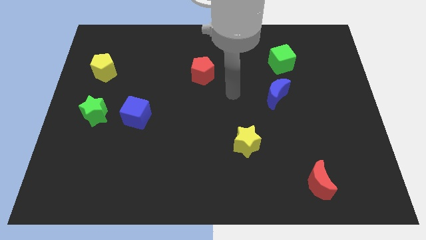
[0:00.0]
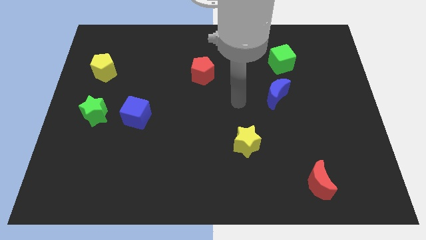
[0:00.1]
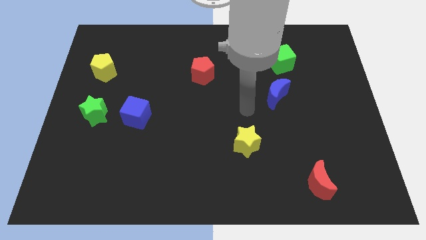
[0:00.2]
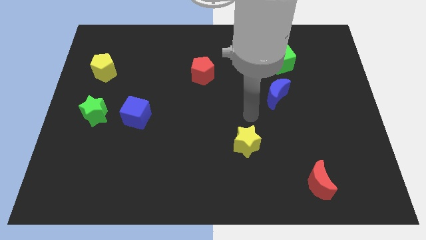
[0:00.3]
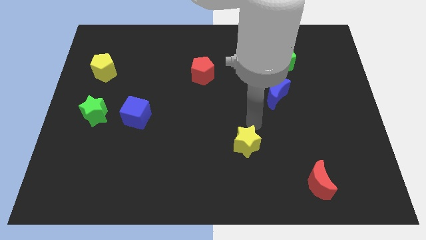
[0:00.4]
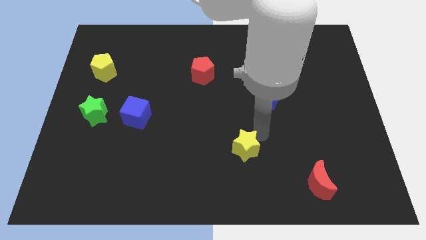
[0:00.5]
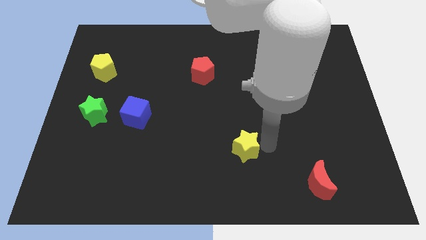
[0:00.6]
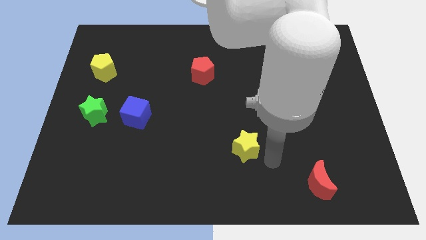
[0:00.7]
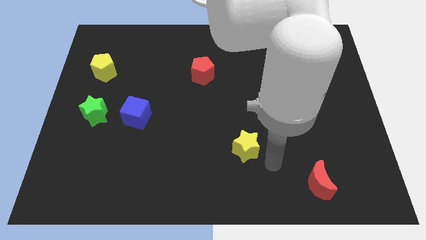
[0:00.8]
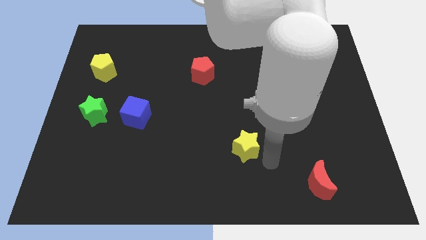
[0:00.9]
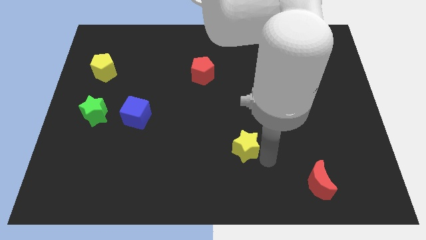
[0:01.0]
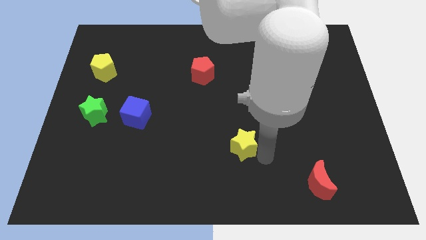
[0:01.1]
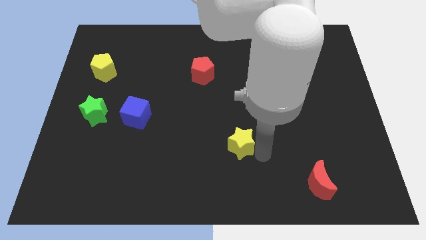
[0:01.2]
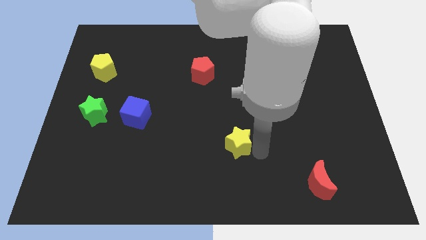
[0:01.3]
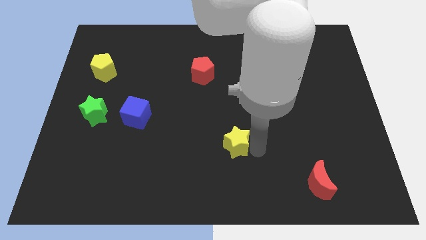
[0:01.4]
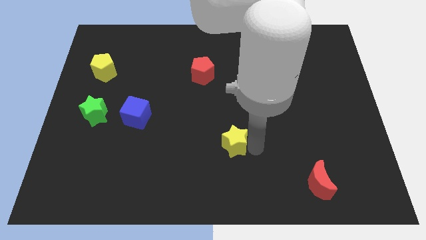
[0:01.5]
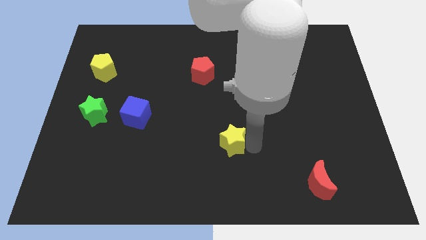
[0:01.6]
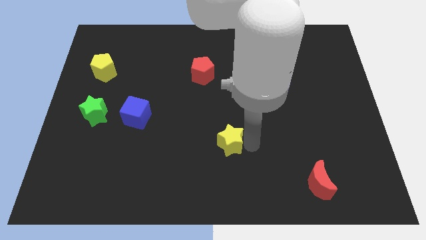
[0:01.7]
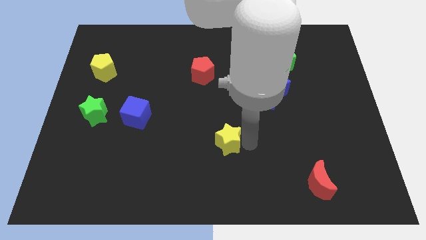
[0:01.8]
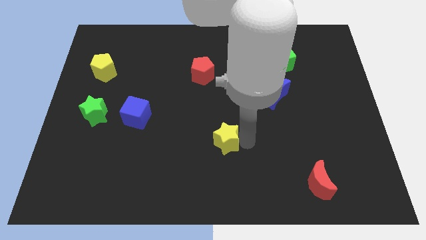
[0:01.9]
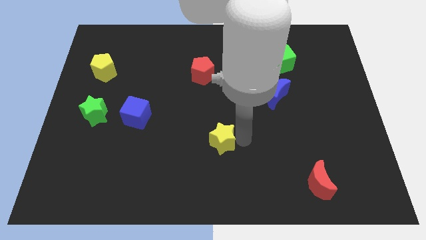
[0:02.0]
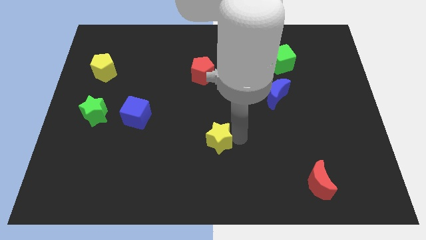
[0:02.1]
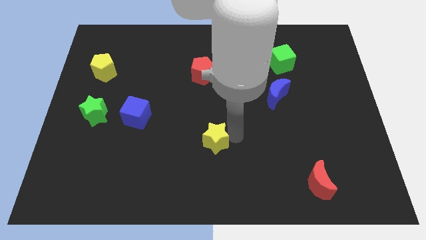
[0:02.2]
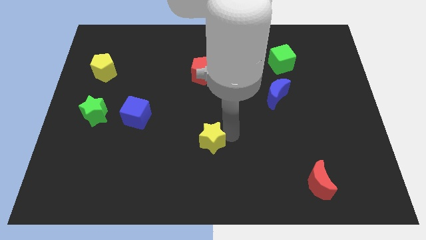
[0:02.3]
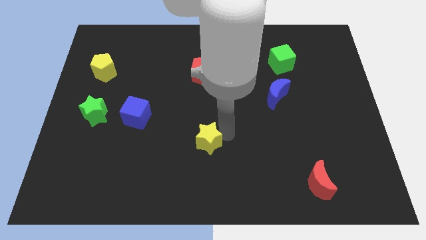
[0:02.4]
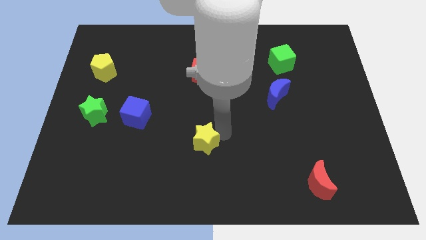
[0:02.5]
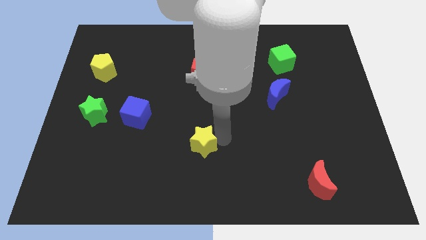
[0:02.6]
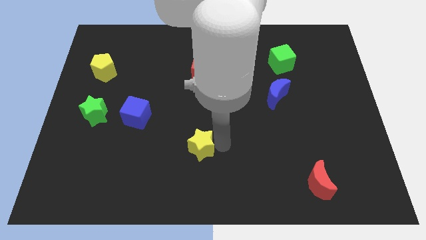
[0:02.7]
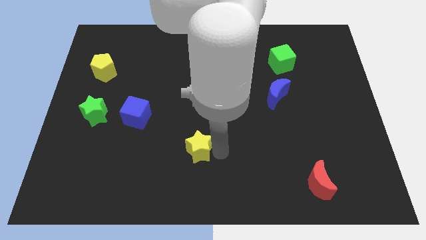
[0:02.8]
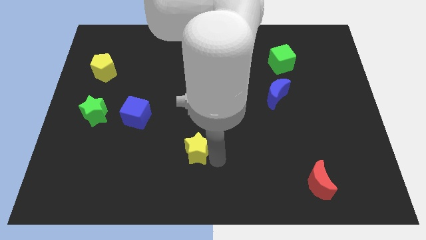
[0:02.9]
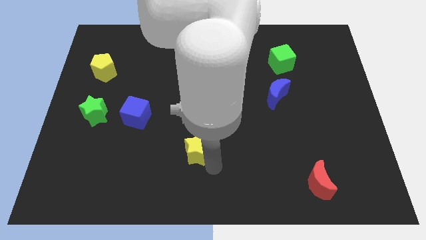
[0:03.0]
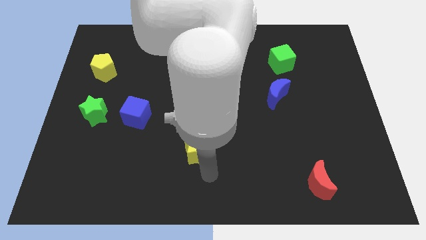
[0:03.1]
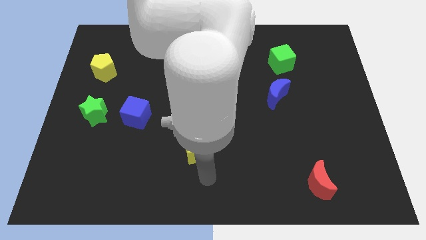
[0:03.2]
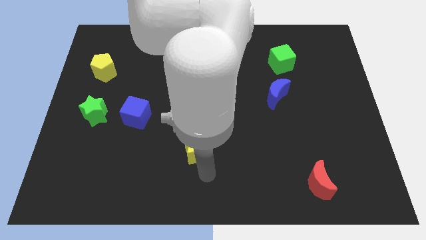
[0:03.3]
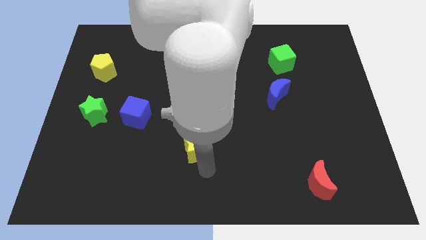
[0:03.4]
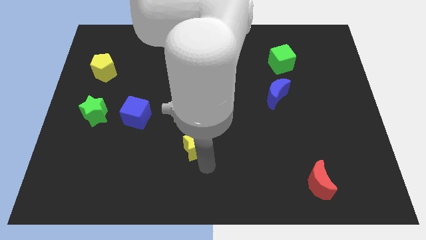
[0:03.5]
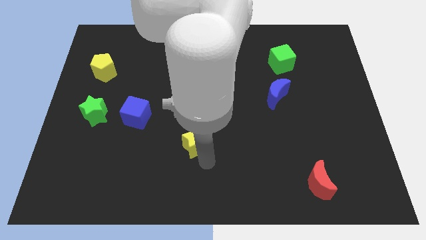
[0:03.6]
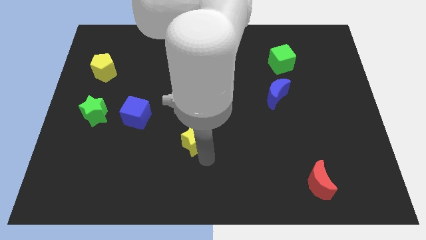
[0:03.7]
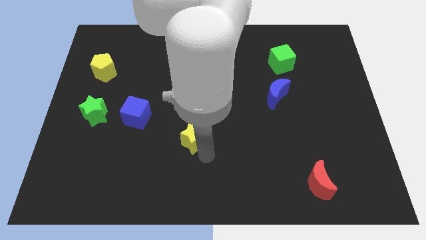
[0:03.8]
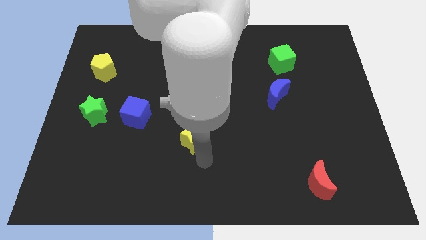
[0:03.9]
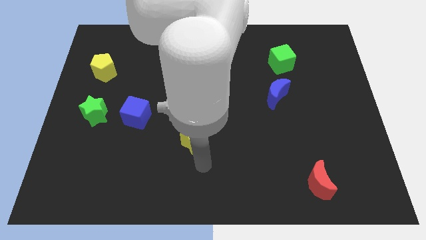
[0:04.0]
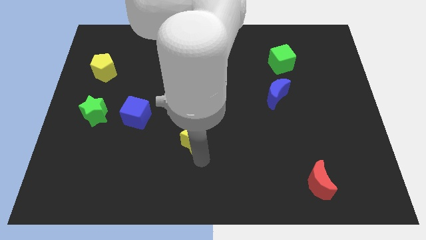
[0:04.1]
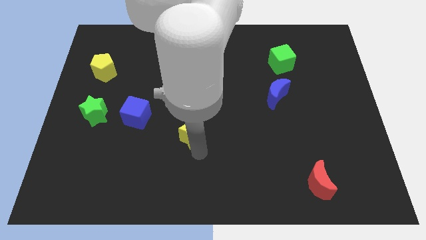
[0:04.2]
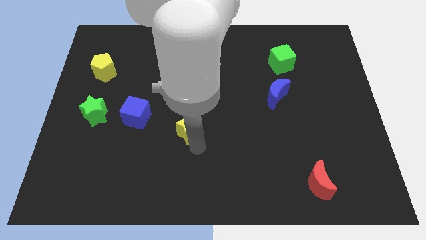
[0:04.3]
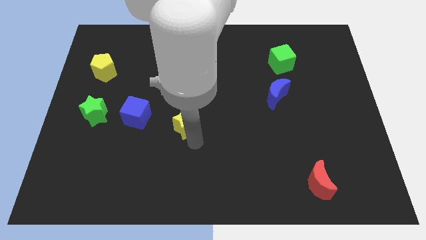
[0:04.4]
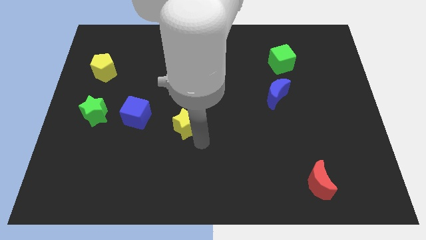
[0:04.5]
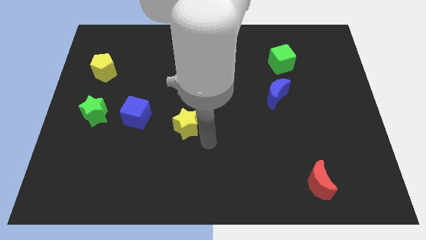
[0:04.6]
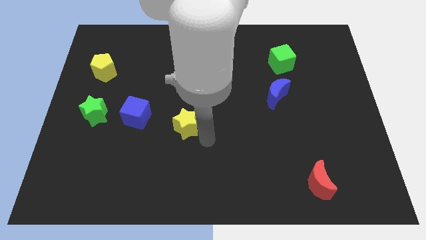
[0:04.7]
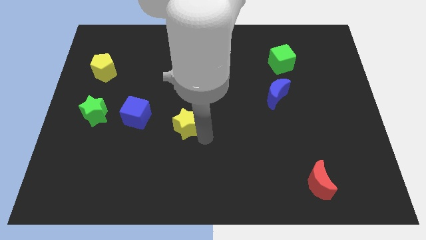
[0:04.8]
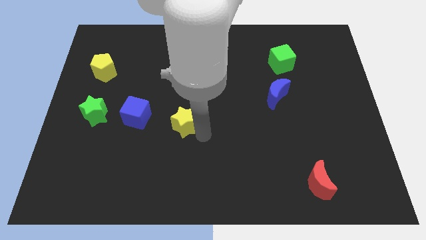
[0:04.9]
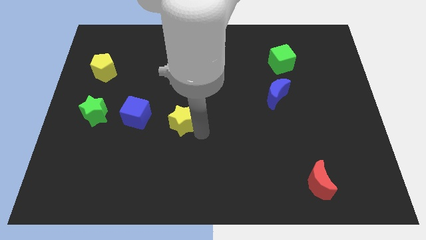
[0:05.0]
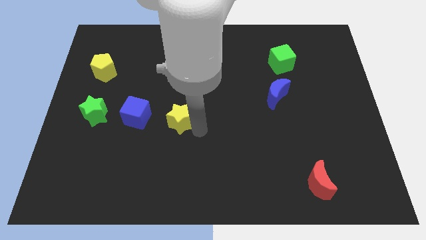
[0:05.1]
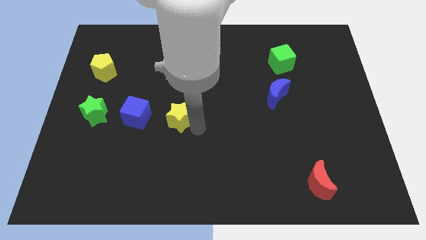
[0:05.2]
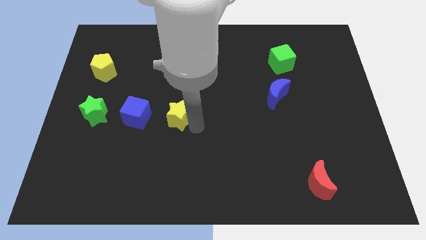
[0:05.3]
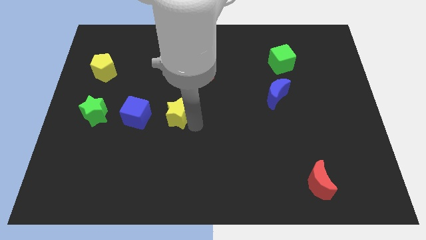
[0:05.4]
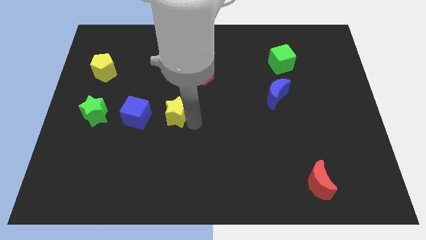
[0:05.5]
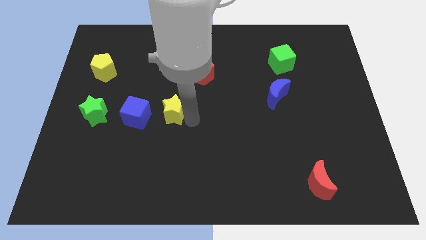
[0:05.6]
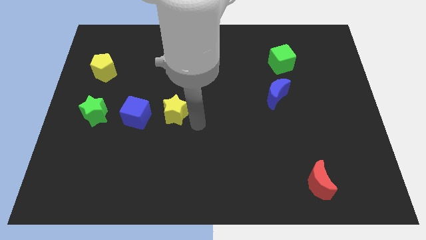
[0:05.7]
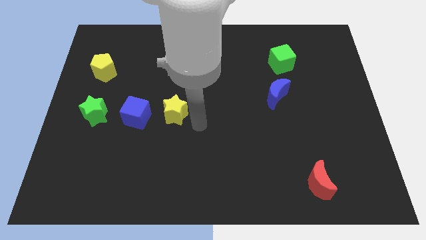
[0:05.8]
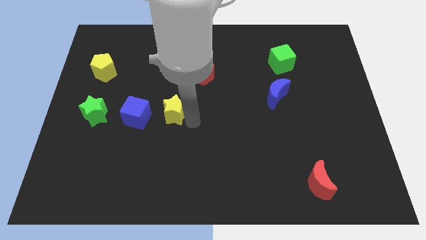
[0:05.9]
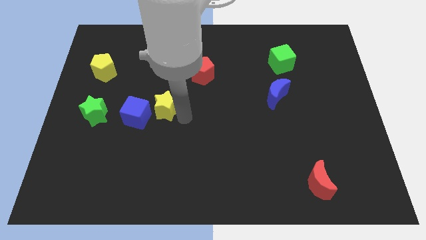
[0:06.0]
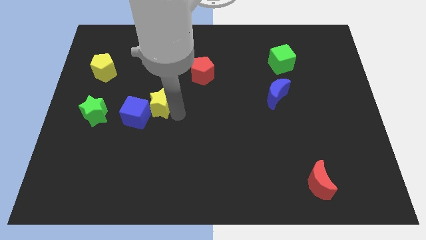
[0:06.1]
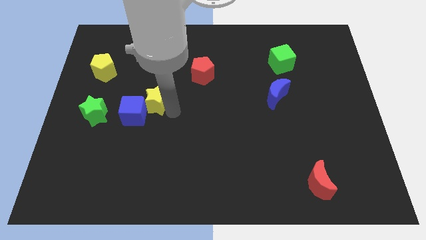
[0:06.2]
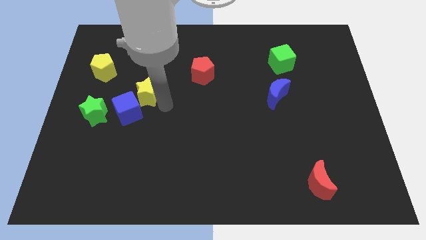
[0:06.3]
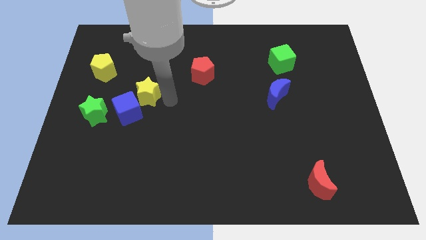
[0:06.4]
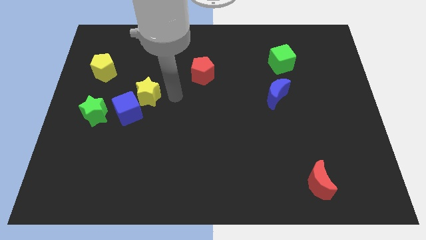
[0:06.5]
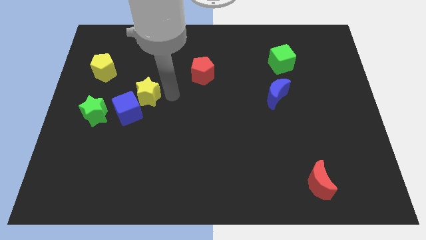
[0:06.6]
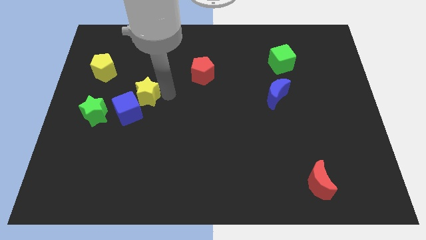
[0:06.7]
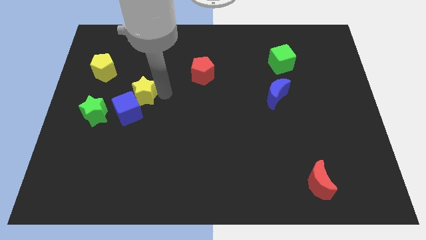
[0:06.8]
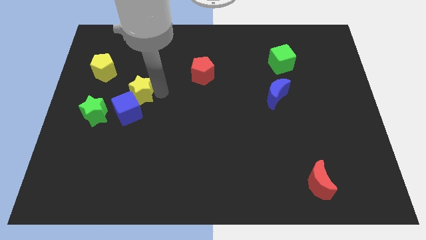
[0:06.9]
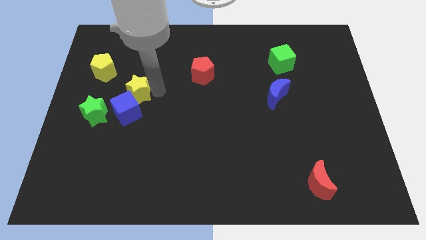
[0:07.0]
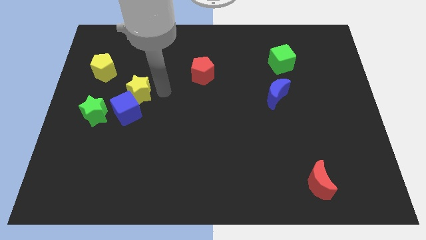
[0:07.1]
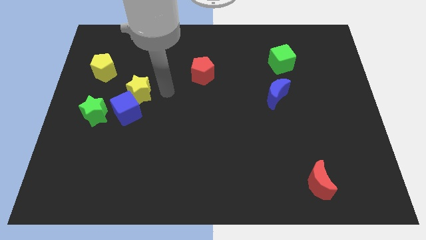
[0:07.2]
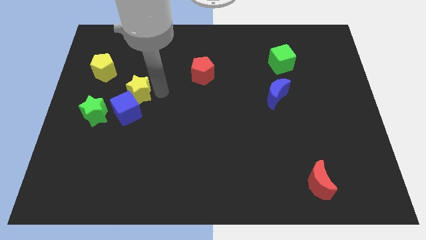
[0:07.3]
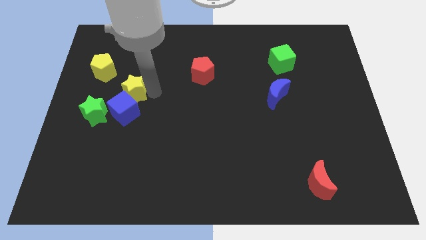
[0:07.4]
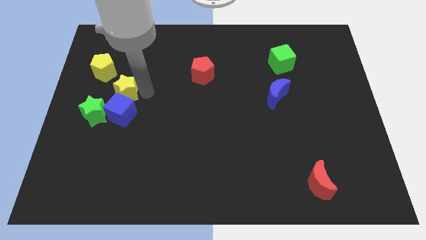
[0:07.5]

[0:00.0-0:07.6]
push the yellow star diagonally up and to the left of the blue cube

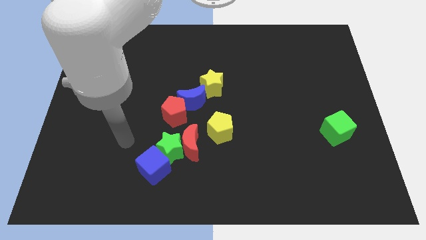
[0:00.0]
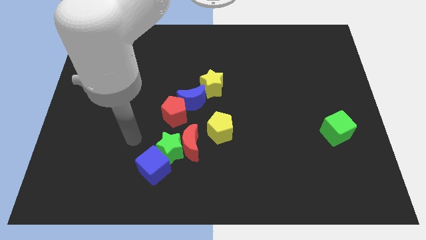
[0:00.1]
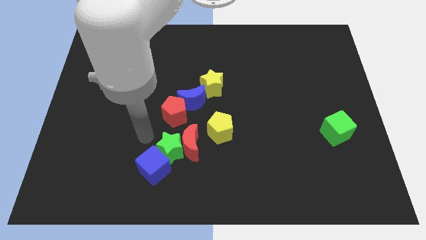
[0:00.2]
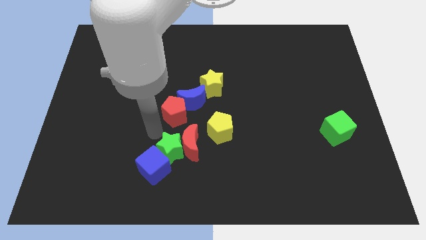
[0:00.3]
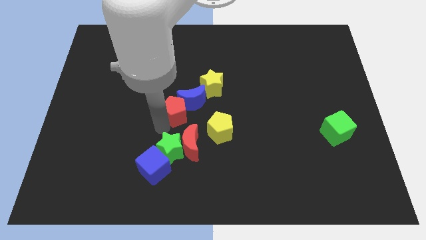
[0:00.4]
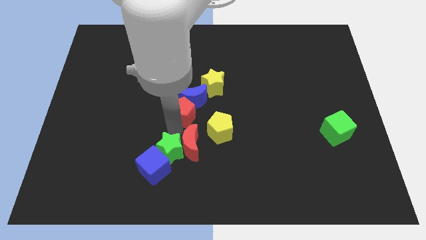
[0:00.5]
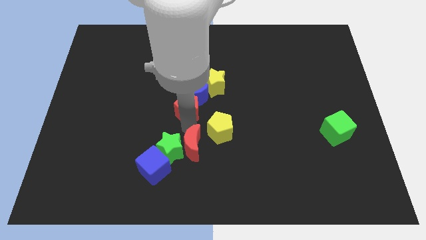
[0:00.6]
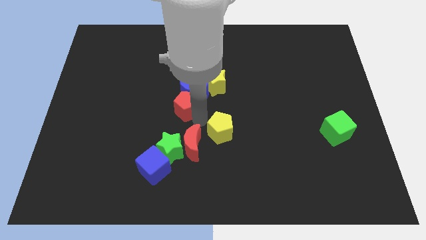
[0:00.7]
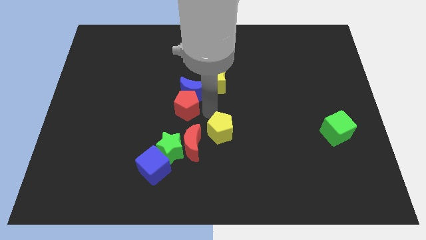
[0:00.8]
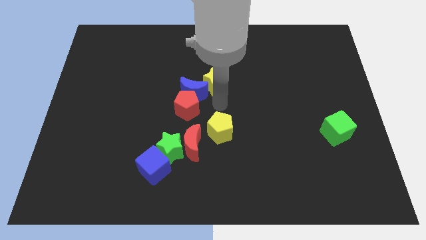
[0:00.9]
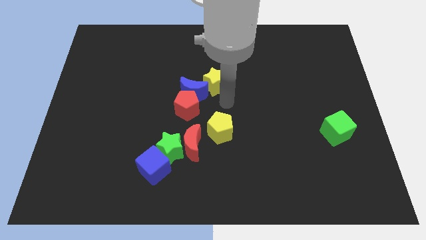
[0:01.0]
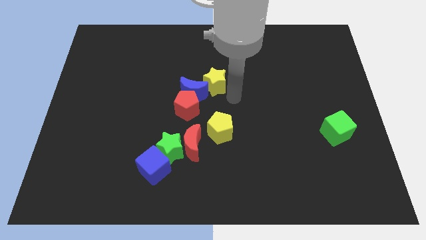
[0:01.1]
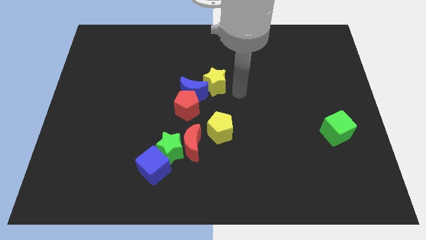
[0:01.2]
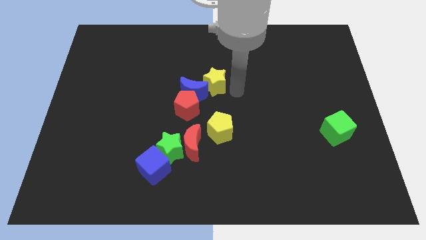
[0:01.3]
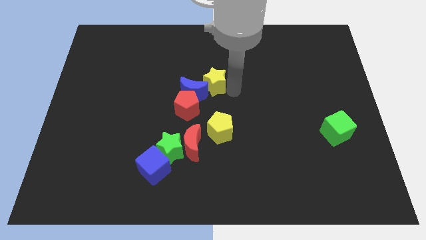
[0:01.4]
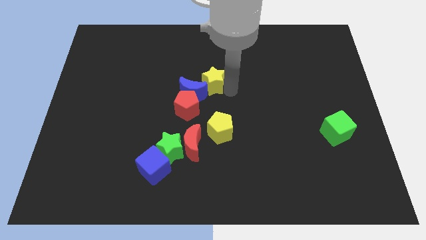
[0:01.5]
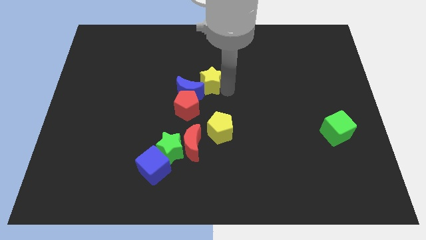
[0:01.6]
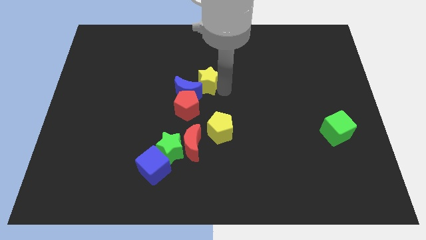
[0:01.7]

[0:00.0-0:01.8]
put the yellow star to the top side of the red pentagon
